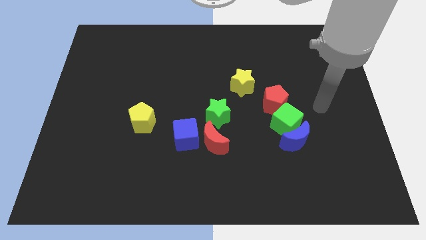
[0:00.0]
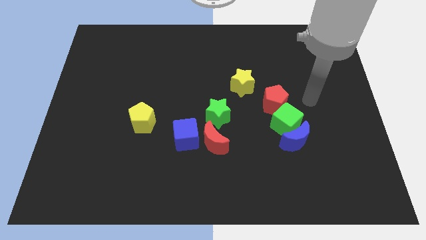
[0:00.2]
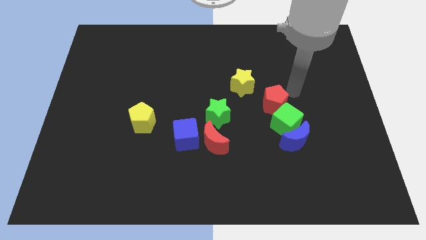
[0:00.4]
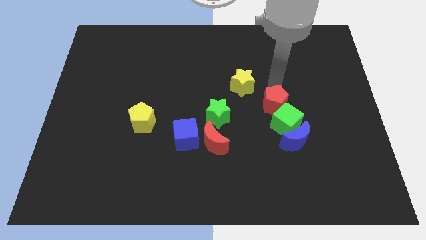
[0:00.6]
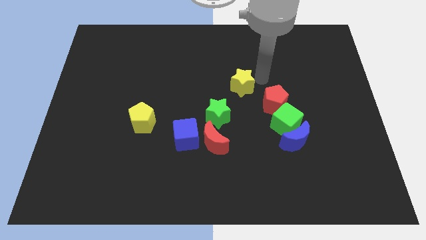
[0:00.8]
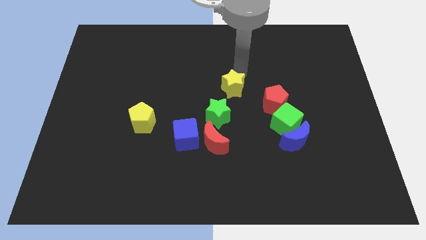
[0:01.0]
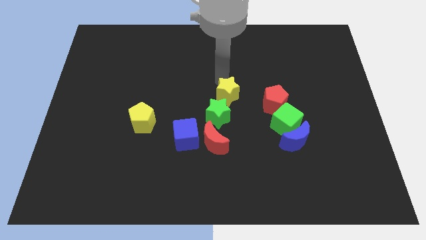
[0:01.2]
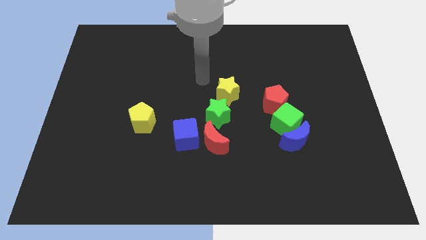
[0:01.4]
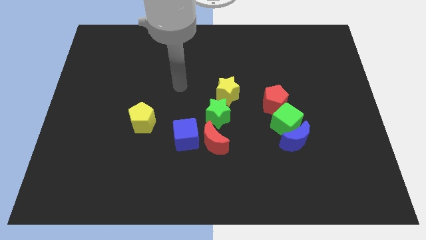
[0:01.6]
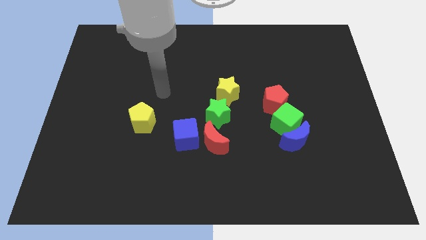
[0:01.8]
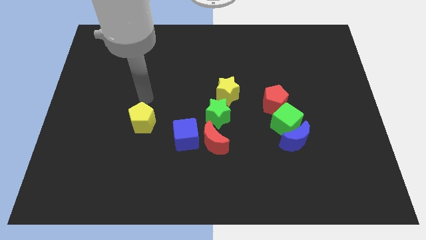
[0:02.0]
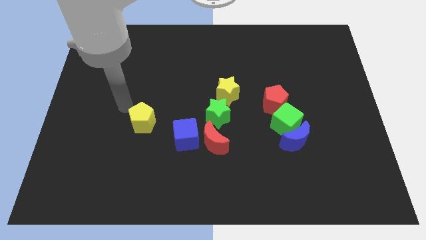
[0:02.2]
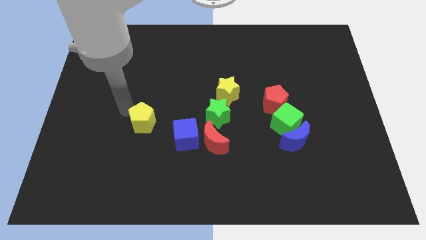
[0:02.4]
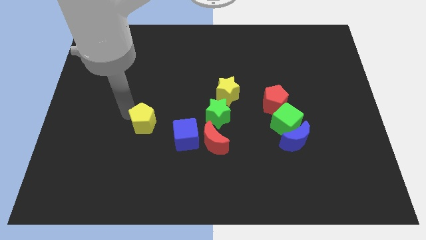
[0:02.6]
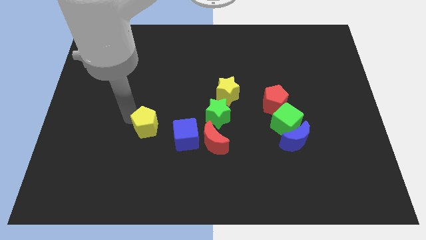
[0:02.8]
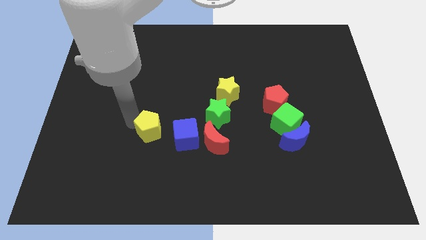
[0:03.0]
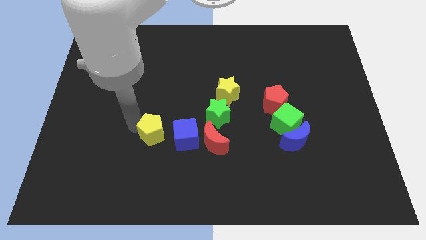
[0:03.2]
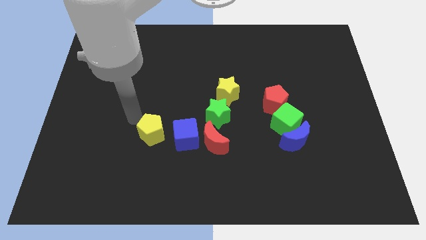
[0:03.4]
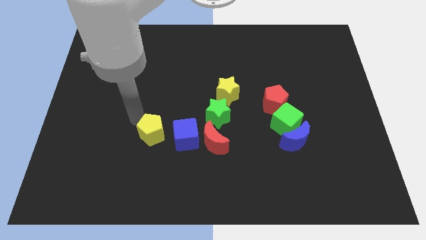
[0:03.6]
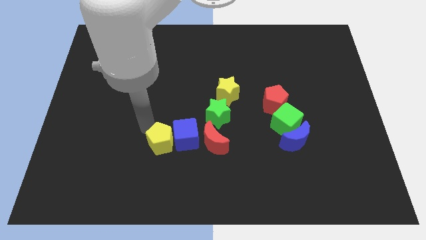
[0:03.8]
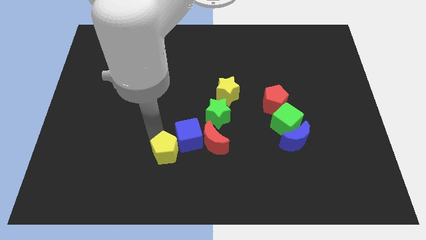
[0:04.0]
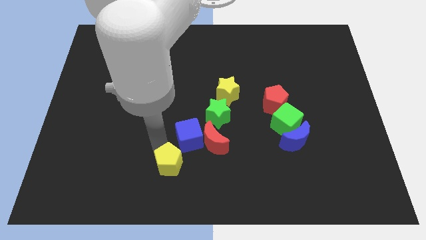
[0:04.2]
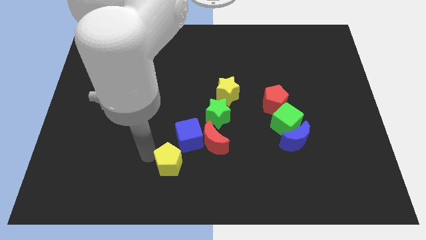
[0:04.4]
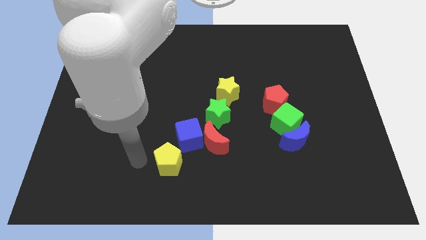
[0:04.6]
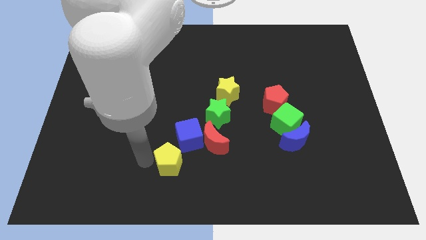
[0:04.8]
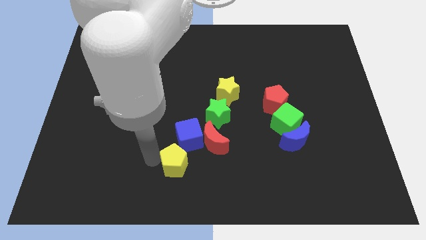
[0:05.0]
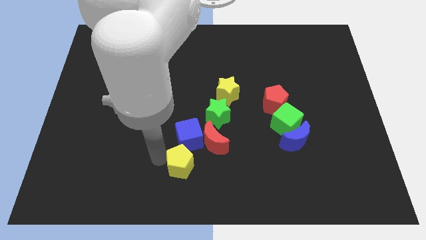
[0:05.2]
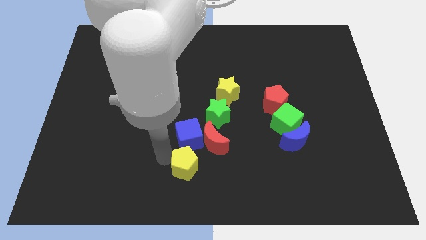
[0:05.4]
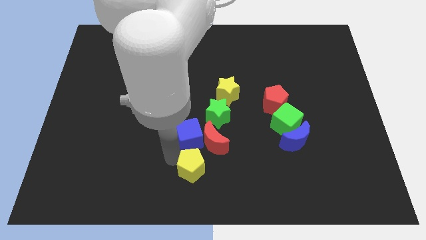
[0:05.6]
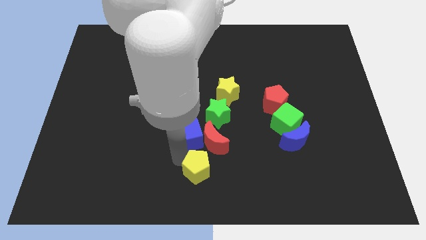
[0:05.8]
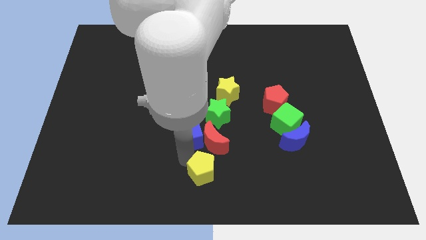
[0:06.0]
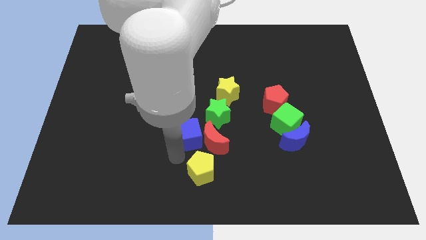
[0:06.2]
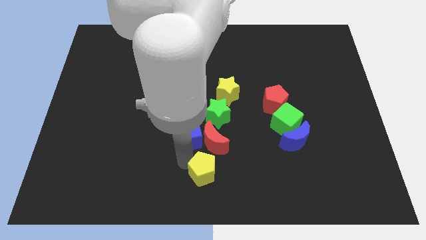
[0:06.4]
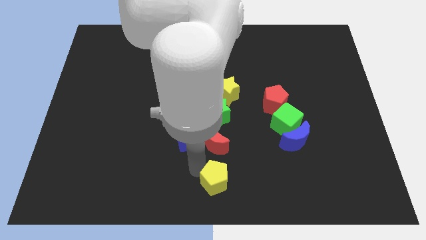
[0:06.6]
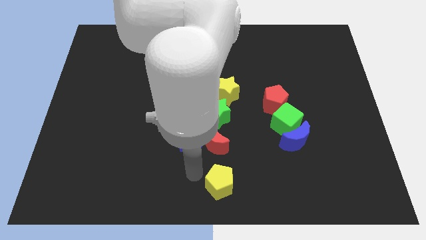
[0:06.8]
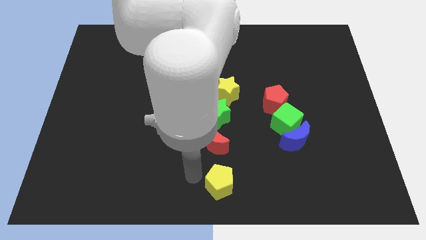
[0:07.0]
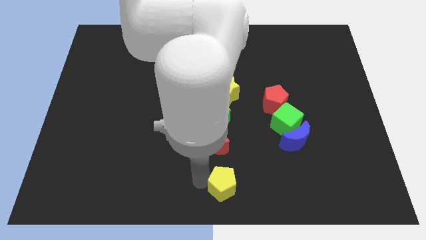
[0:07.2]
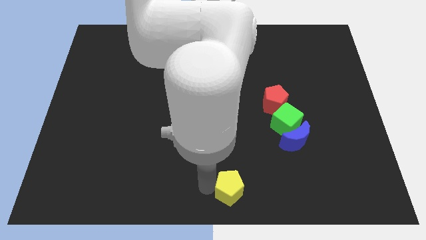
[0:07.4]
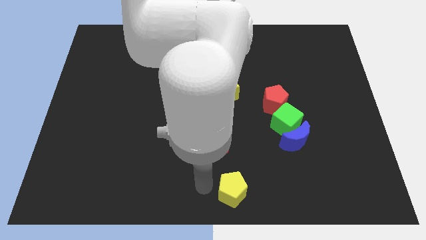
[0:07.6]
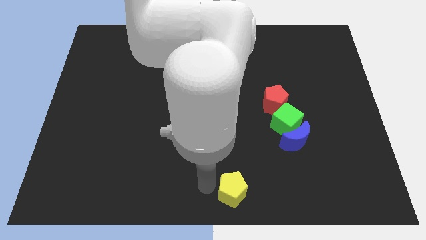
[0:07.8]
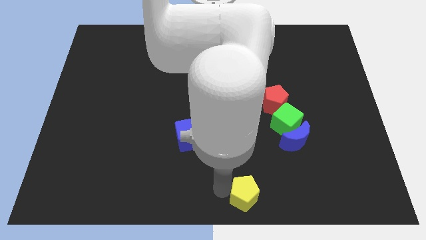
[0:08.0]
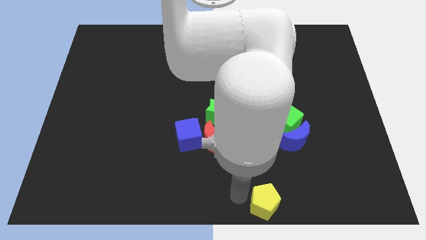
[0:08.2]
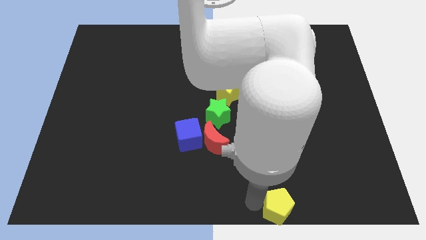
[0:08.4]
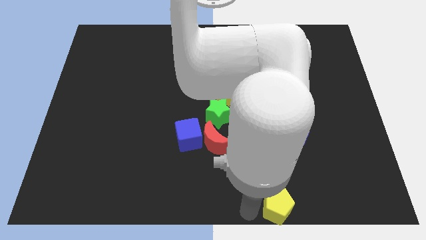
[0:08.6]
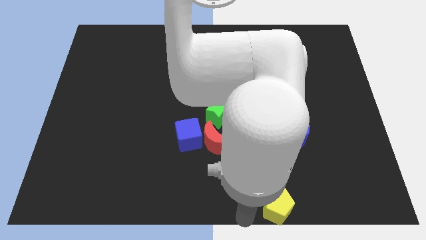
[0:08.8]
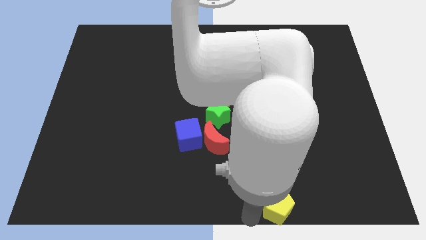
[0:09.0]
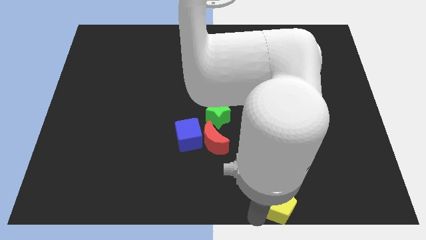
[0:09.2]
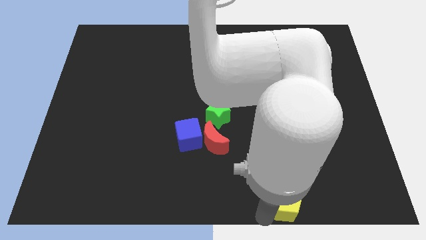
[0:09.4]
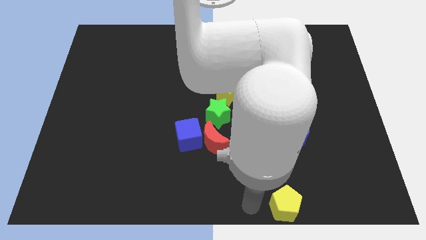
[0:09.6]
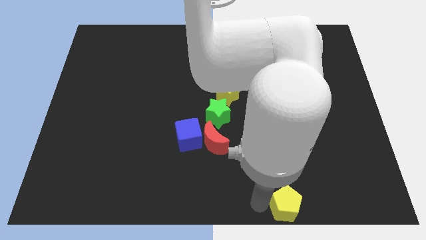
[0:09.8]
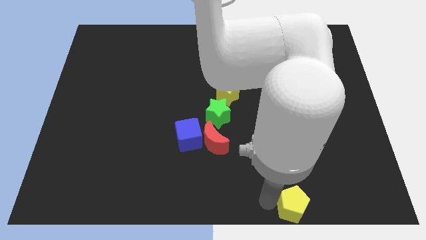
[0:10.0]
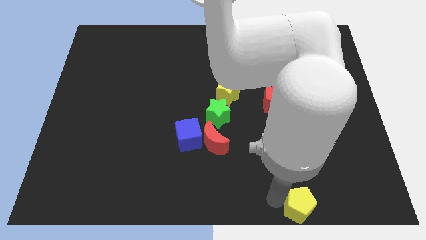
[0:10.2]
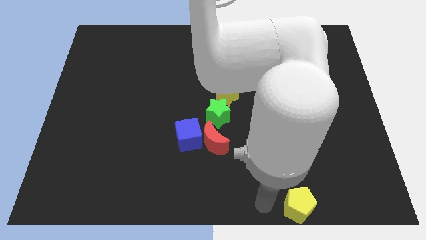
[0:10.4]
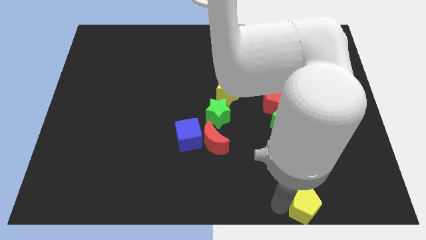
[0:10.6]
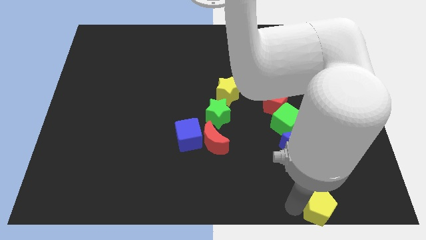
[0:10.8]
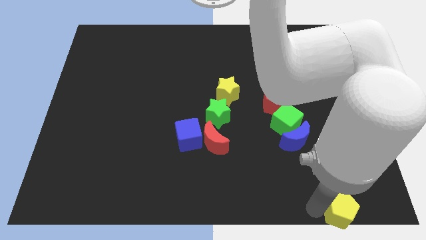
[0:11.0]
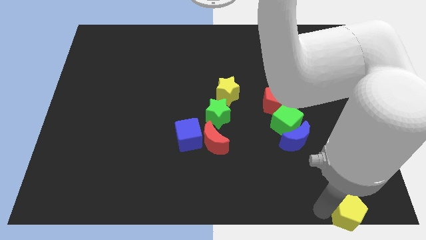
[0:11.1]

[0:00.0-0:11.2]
put the yellow pentagon to the bottom right of the board
